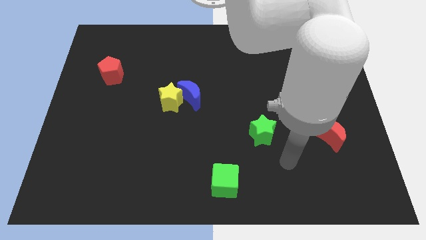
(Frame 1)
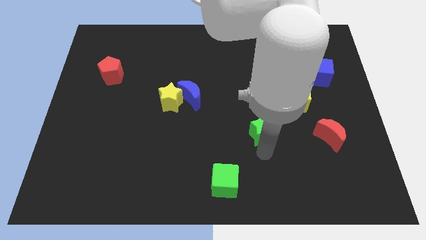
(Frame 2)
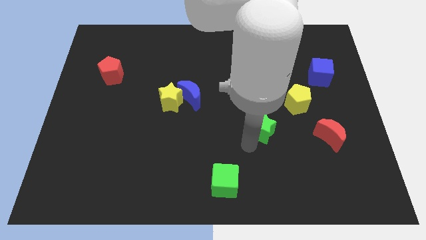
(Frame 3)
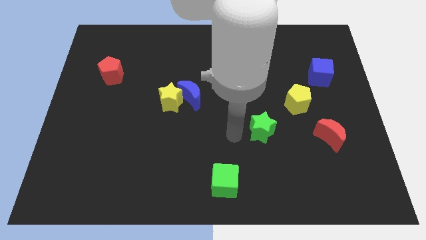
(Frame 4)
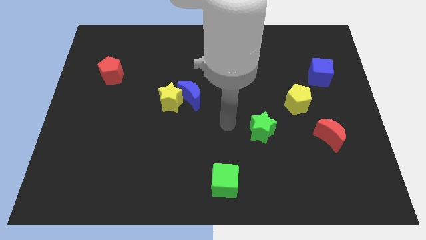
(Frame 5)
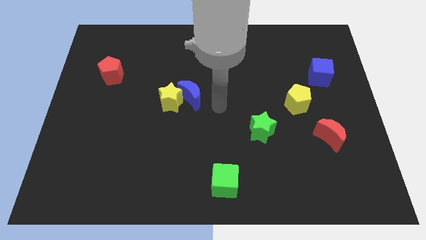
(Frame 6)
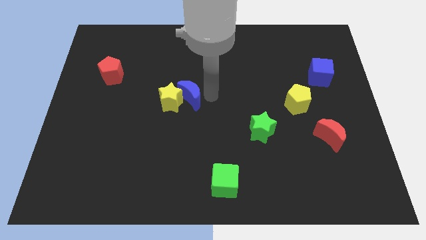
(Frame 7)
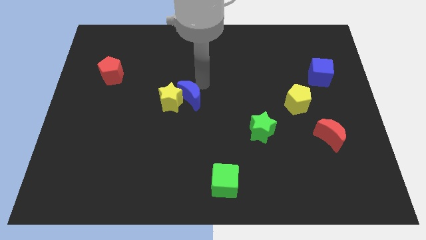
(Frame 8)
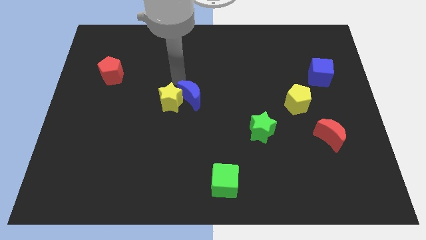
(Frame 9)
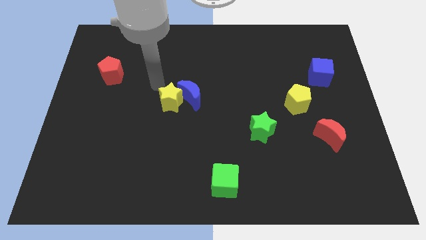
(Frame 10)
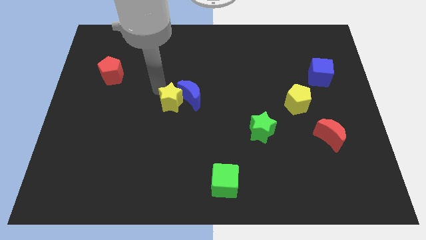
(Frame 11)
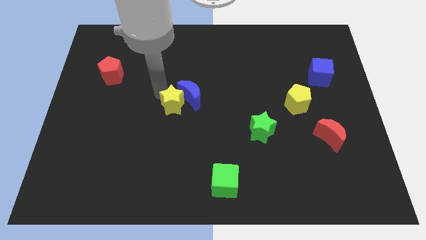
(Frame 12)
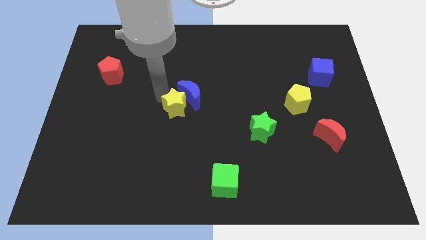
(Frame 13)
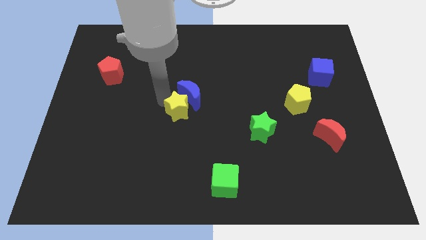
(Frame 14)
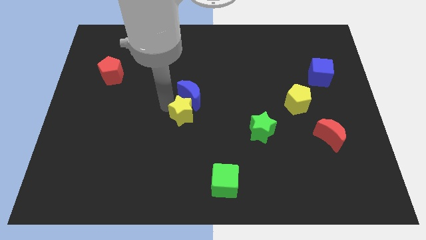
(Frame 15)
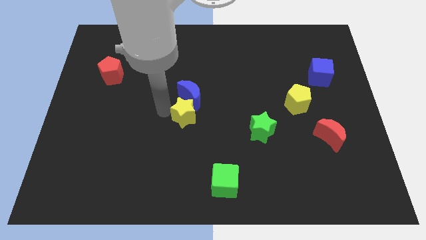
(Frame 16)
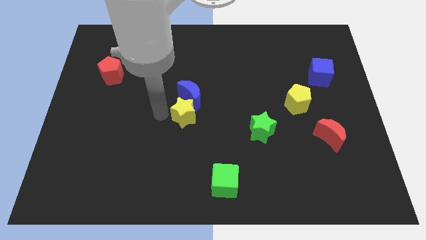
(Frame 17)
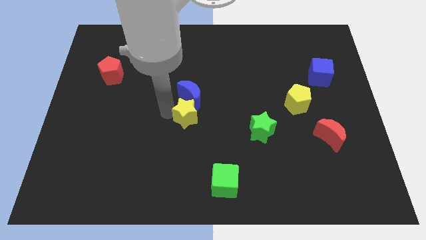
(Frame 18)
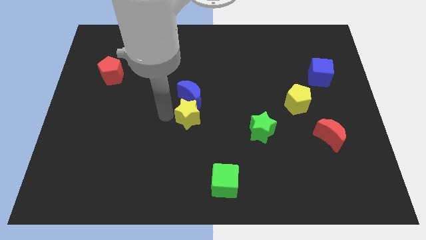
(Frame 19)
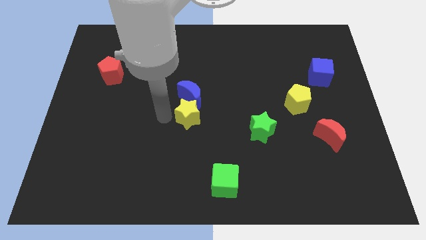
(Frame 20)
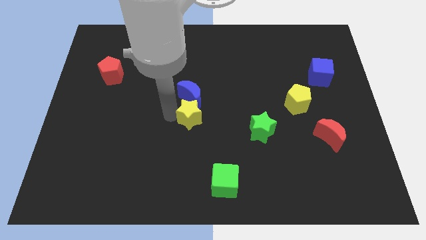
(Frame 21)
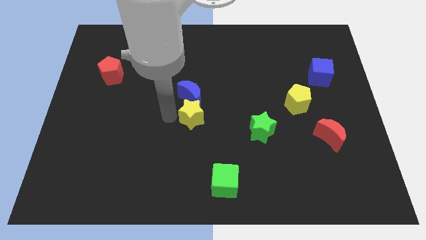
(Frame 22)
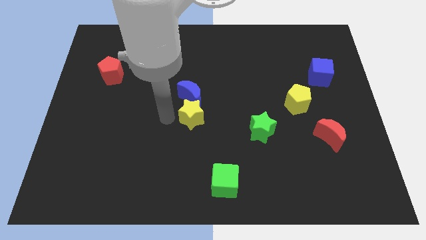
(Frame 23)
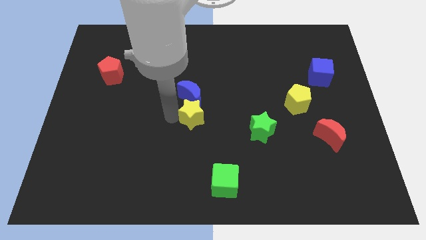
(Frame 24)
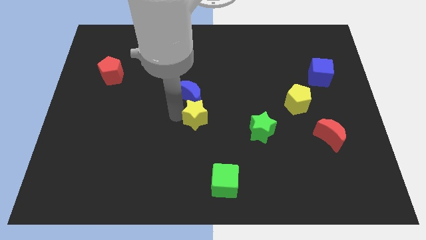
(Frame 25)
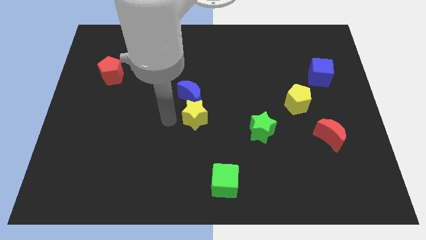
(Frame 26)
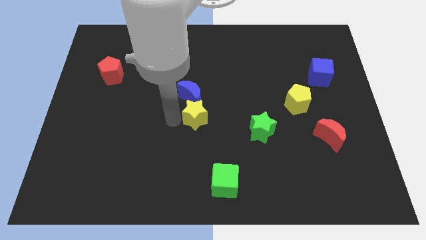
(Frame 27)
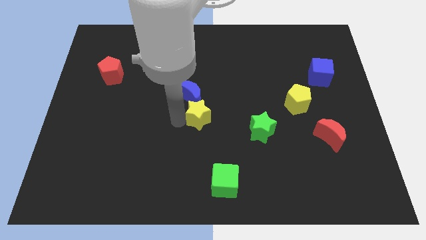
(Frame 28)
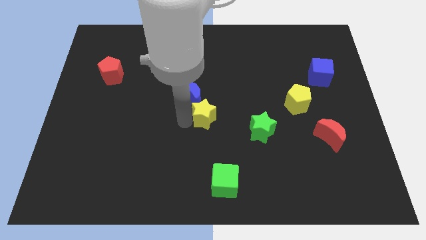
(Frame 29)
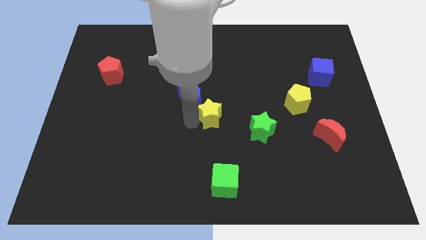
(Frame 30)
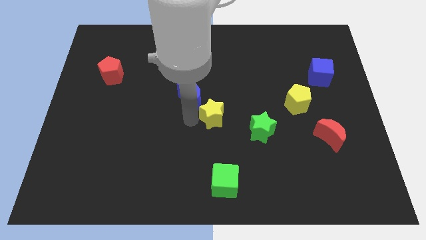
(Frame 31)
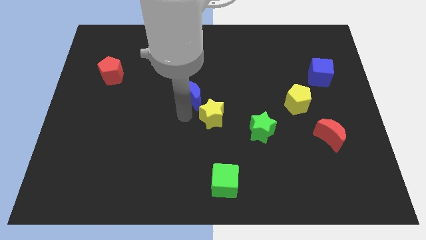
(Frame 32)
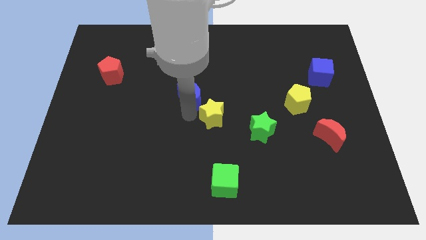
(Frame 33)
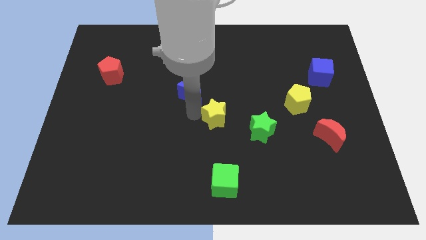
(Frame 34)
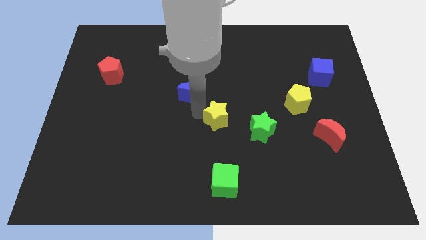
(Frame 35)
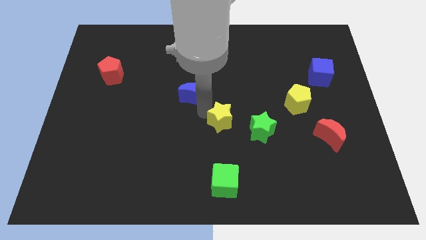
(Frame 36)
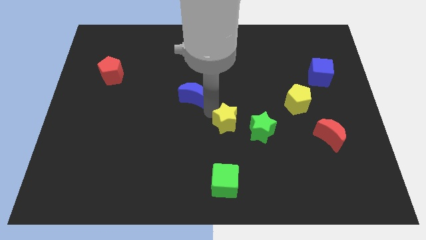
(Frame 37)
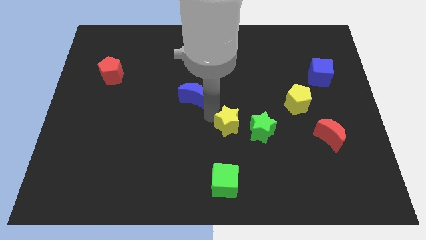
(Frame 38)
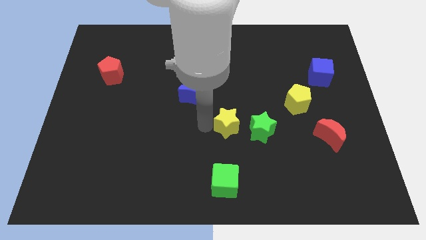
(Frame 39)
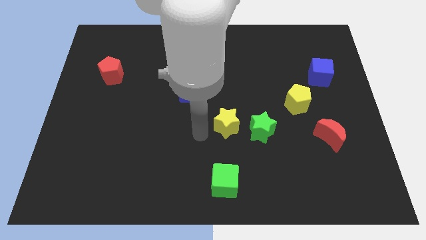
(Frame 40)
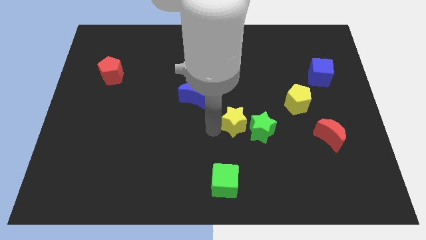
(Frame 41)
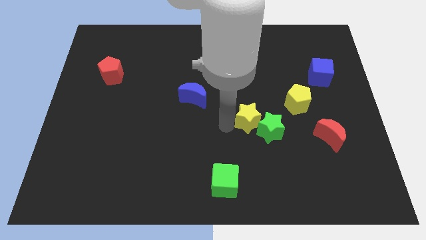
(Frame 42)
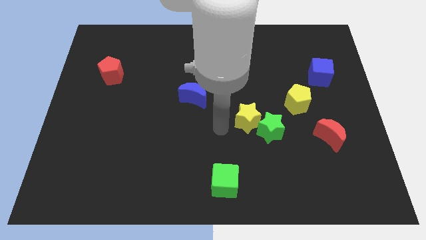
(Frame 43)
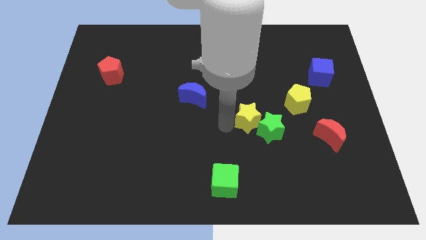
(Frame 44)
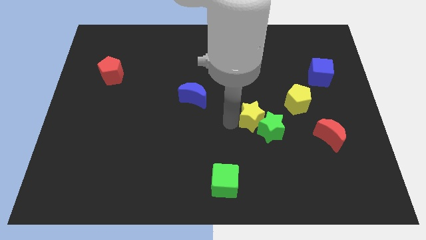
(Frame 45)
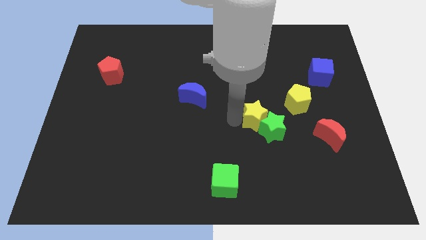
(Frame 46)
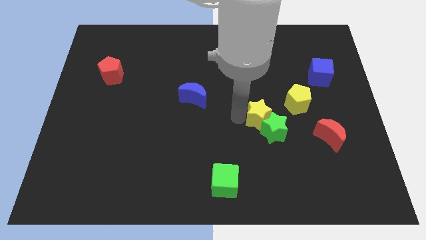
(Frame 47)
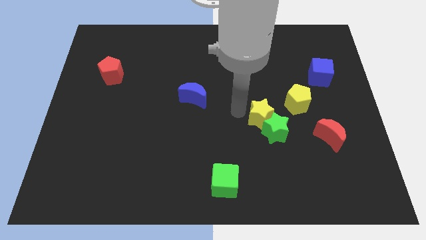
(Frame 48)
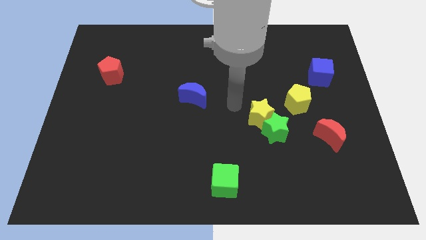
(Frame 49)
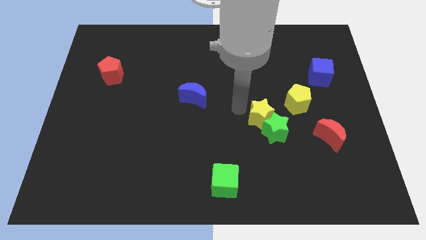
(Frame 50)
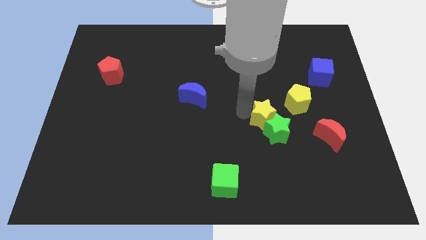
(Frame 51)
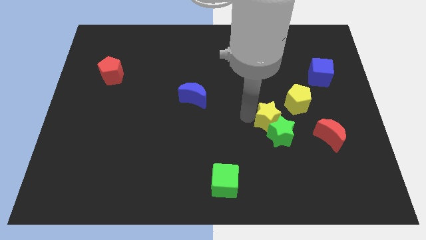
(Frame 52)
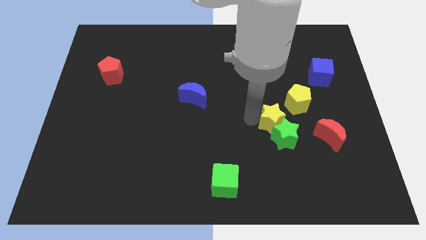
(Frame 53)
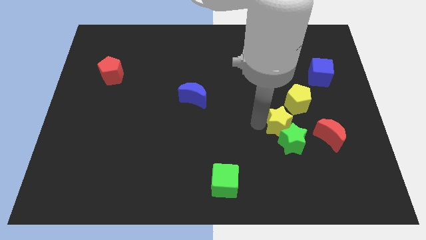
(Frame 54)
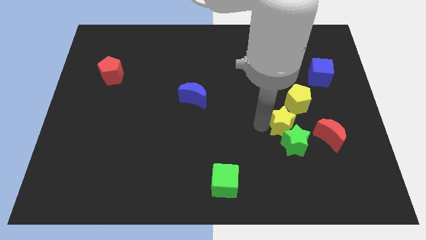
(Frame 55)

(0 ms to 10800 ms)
slide the yellow star to the bottom of the yellow pentagon

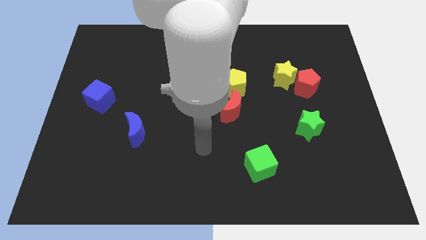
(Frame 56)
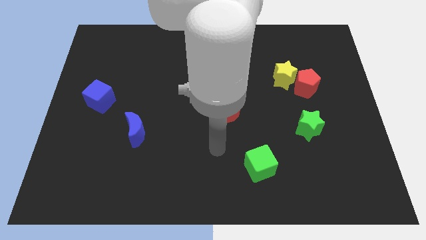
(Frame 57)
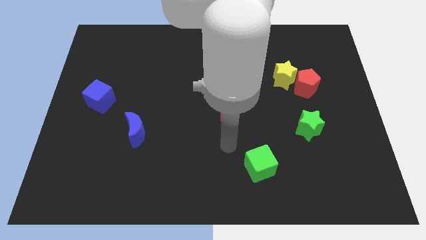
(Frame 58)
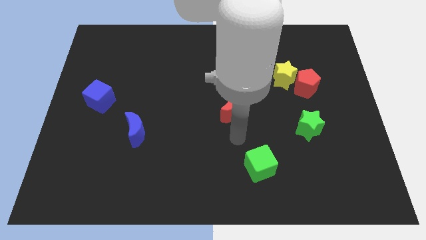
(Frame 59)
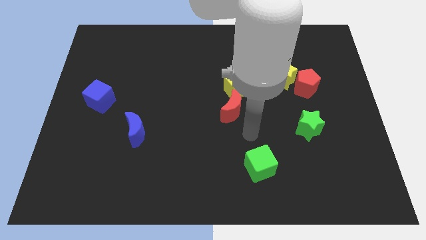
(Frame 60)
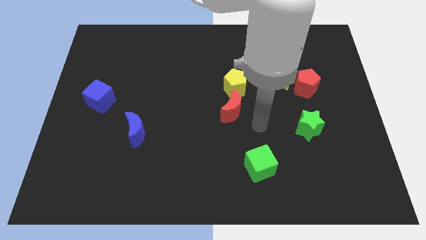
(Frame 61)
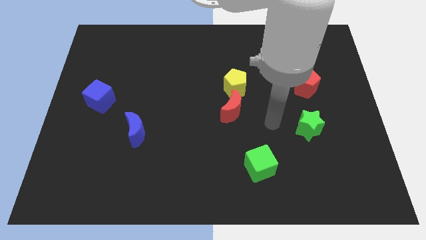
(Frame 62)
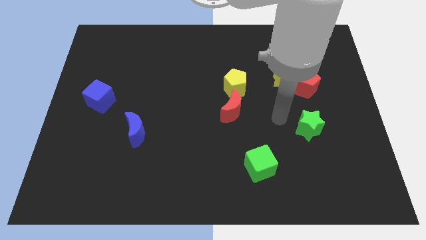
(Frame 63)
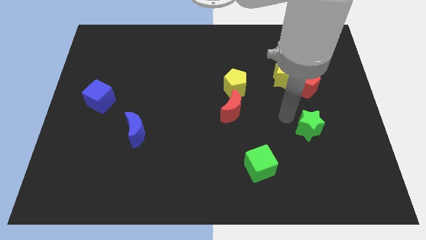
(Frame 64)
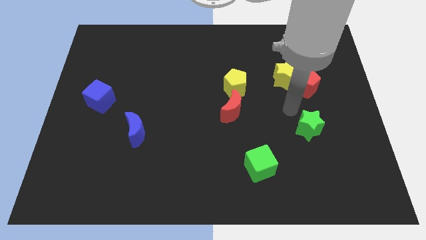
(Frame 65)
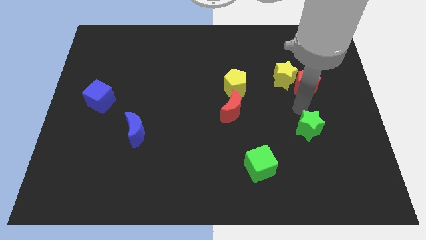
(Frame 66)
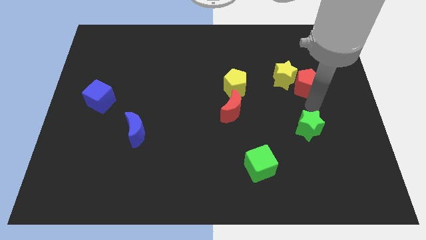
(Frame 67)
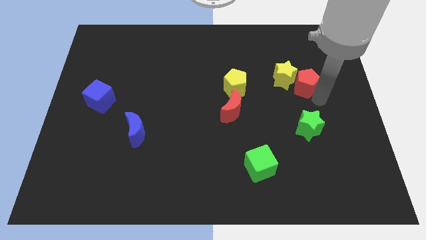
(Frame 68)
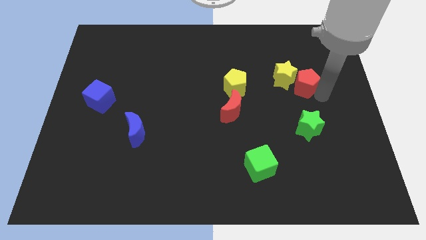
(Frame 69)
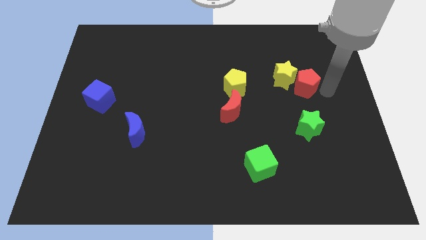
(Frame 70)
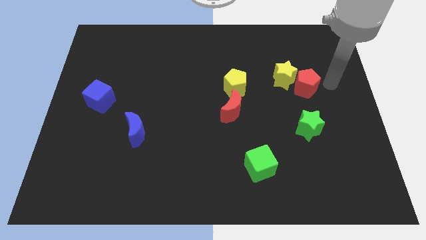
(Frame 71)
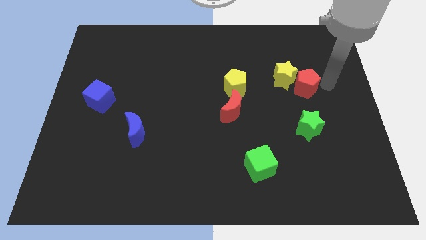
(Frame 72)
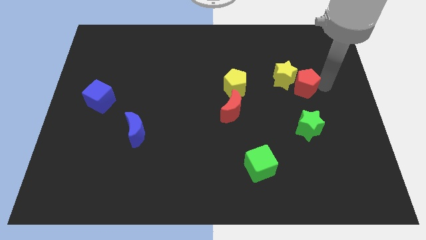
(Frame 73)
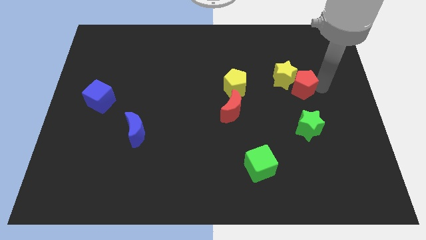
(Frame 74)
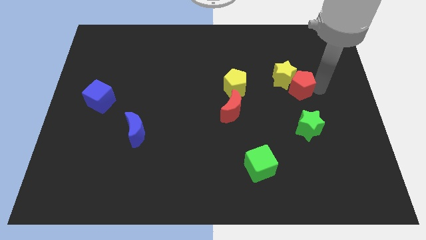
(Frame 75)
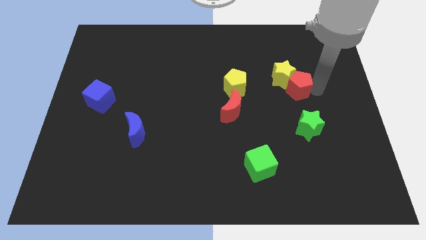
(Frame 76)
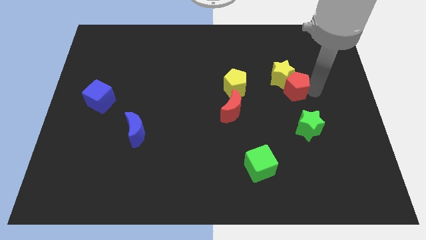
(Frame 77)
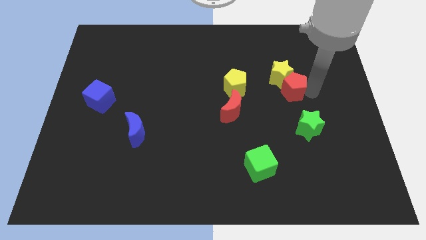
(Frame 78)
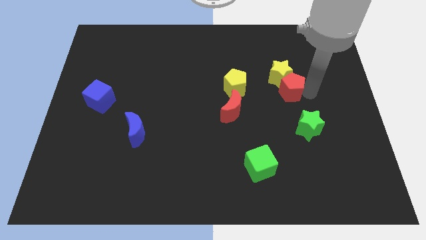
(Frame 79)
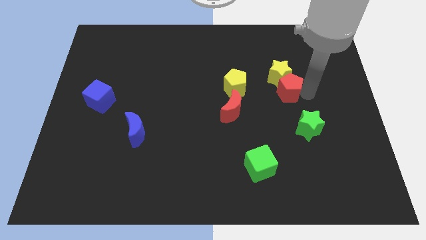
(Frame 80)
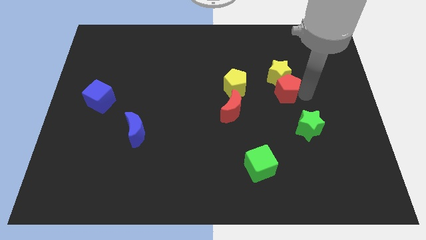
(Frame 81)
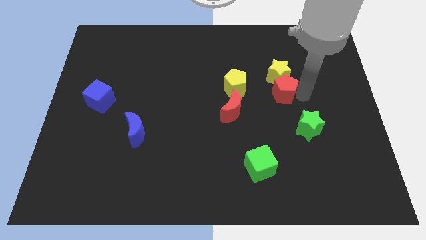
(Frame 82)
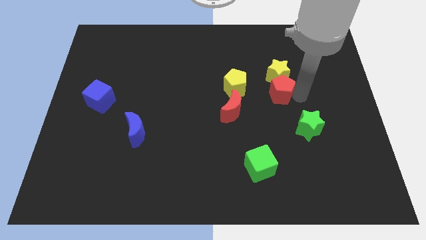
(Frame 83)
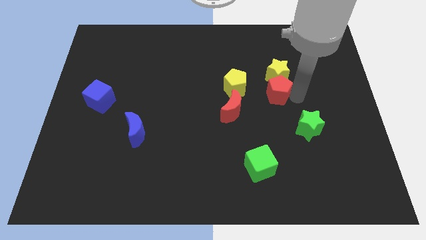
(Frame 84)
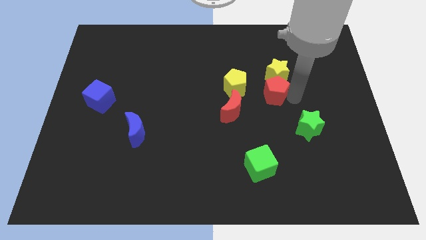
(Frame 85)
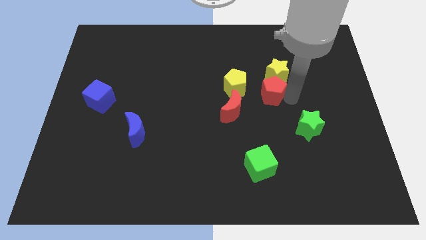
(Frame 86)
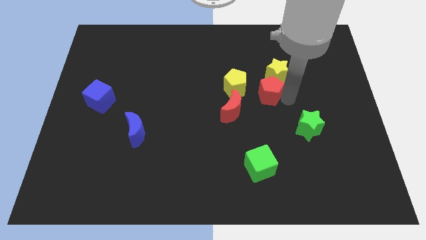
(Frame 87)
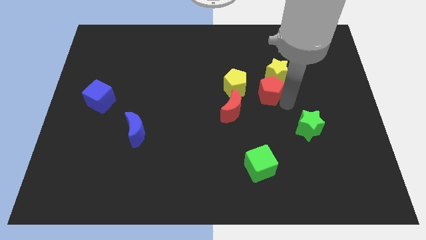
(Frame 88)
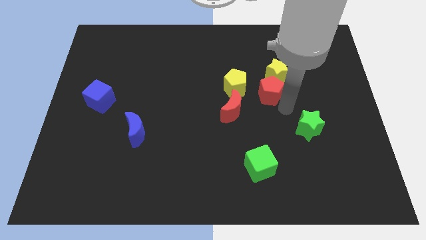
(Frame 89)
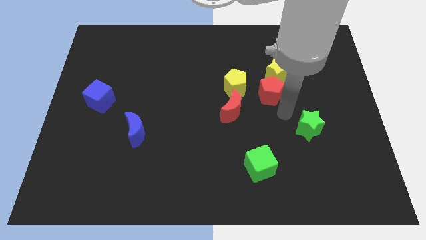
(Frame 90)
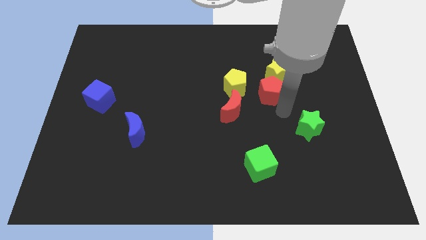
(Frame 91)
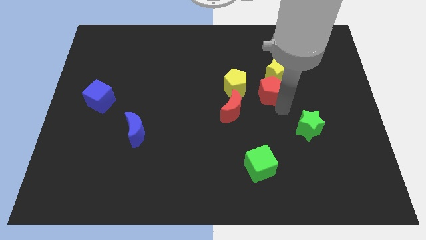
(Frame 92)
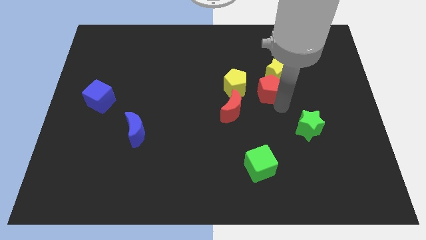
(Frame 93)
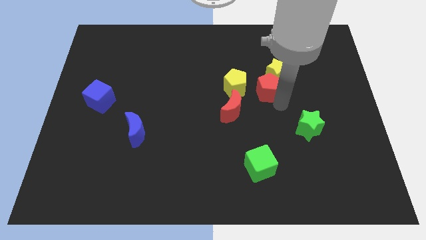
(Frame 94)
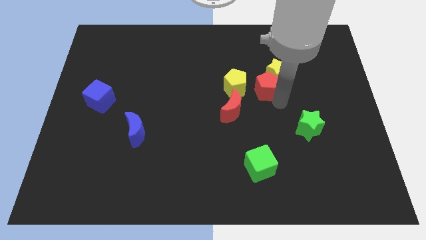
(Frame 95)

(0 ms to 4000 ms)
move the red pentagon to the left side of the yellow star
